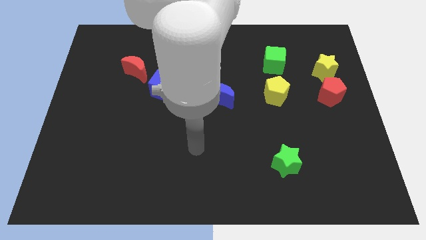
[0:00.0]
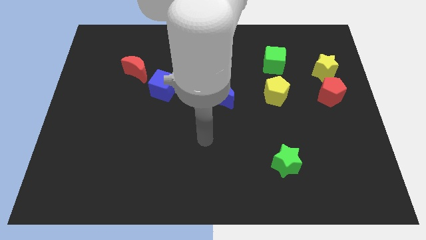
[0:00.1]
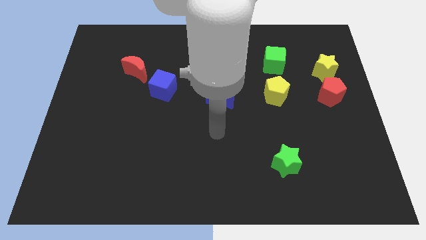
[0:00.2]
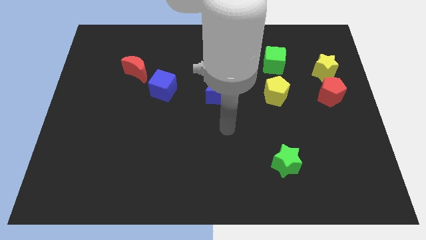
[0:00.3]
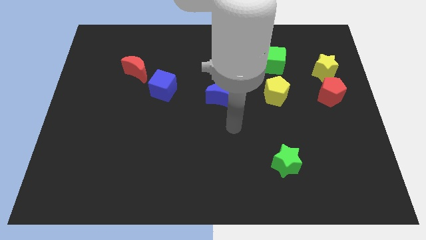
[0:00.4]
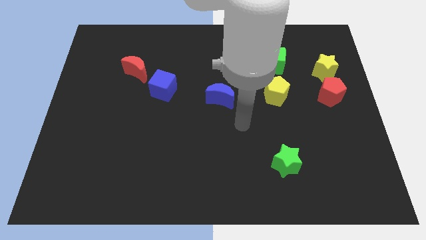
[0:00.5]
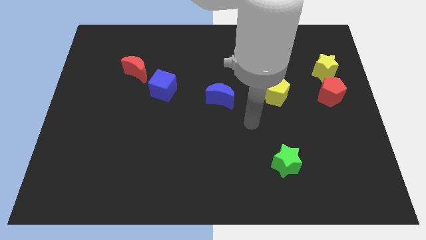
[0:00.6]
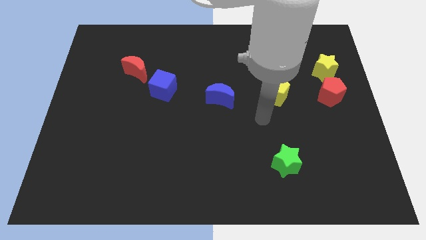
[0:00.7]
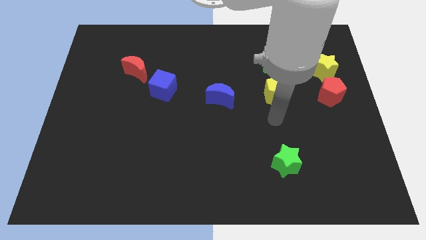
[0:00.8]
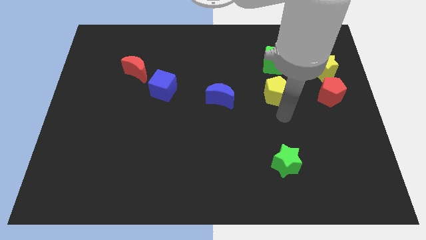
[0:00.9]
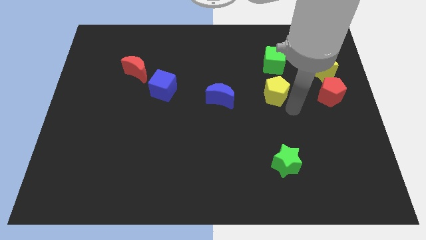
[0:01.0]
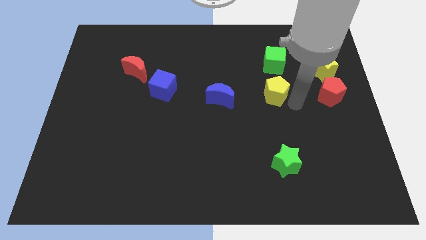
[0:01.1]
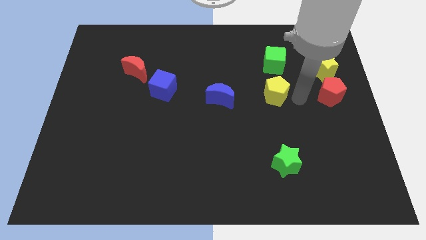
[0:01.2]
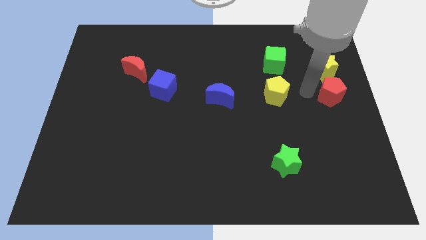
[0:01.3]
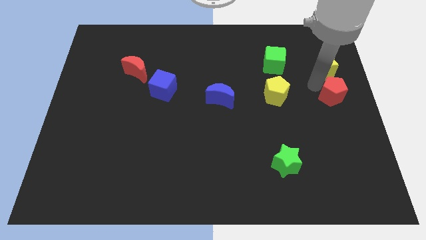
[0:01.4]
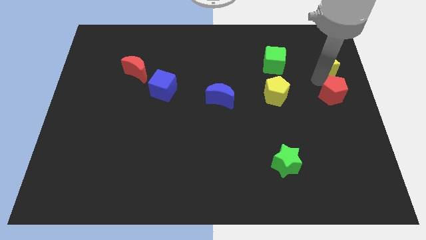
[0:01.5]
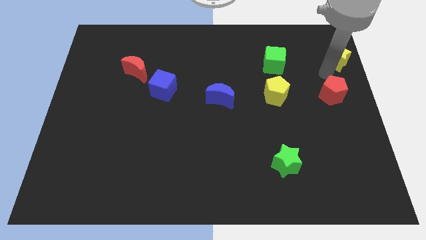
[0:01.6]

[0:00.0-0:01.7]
pull the red pentagon apart from the yellow star

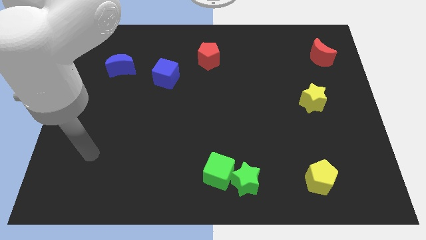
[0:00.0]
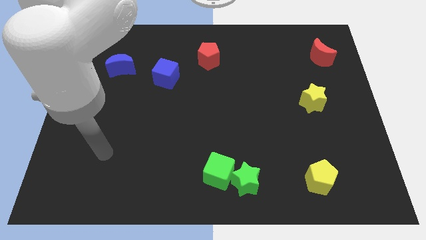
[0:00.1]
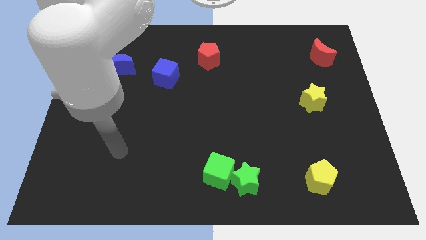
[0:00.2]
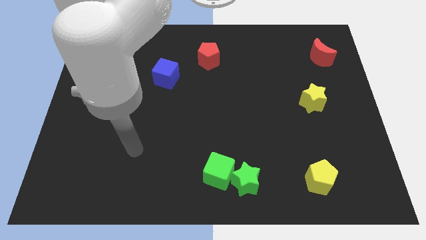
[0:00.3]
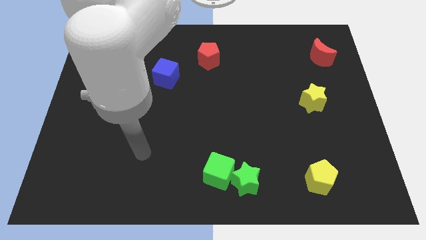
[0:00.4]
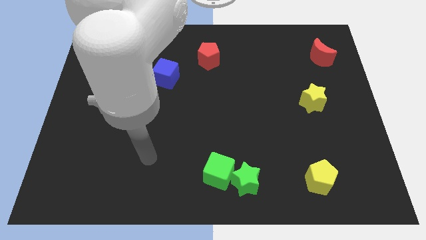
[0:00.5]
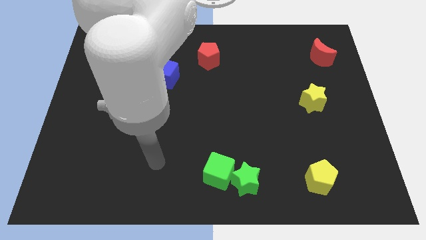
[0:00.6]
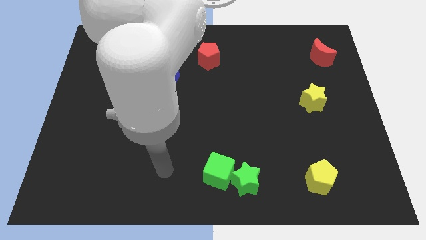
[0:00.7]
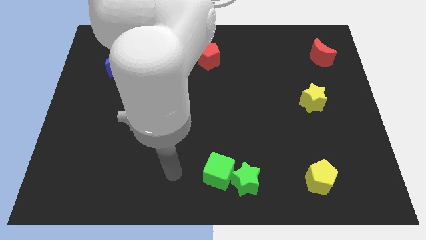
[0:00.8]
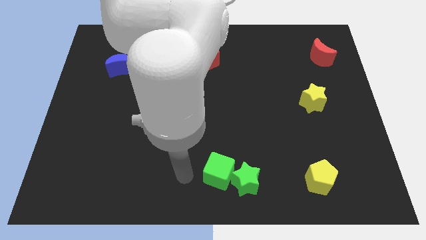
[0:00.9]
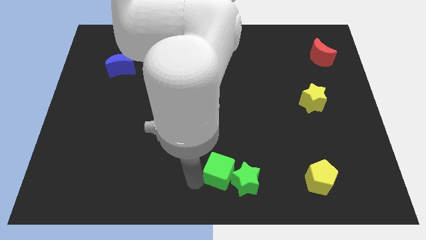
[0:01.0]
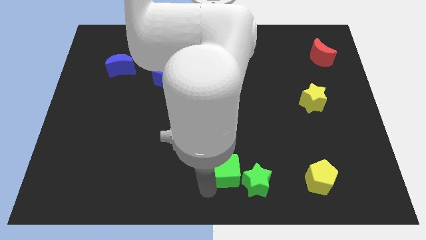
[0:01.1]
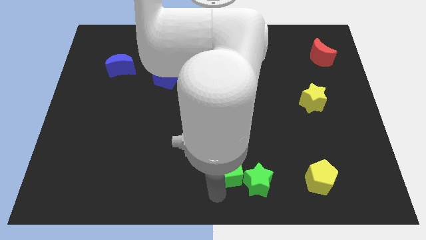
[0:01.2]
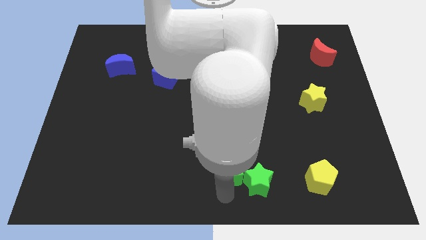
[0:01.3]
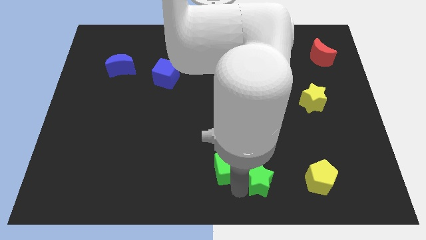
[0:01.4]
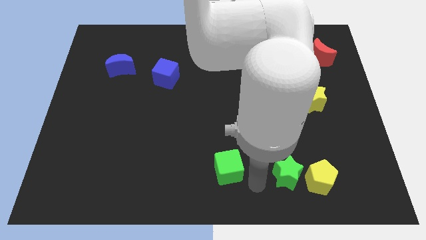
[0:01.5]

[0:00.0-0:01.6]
pull the green cube apart from the green star

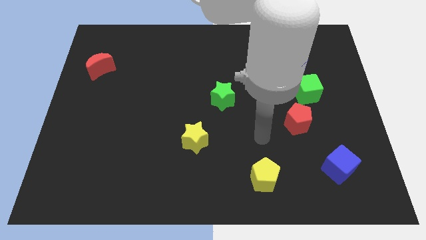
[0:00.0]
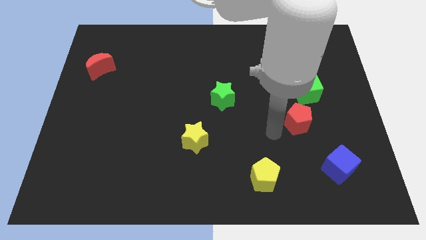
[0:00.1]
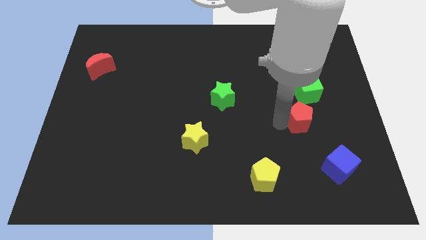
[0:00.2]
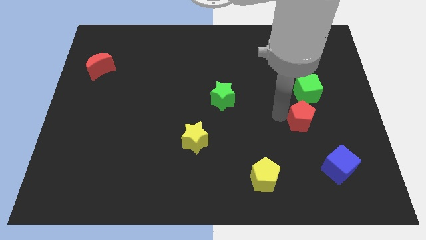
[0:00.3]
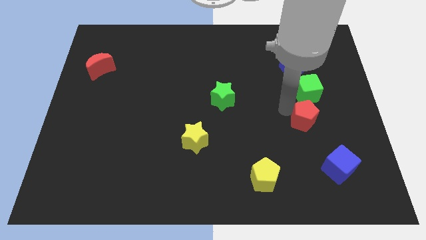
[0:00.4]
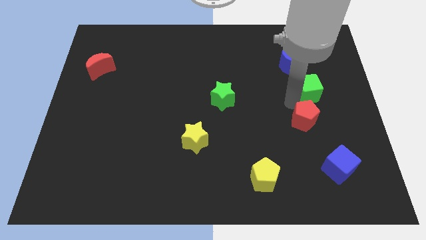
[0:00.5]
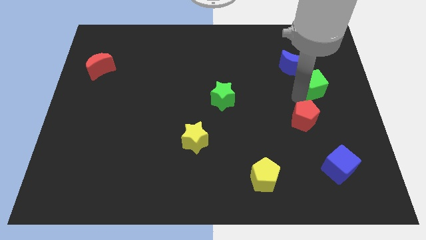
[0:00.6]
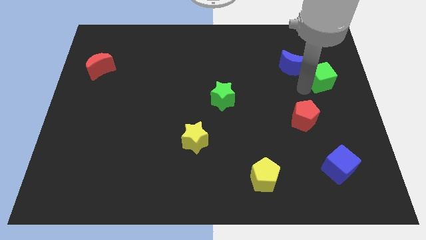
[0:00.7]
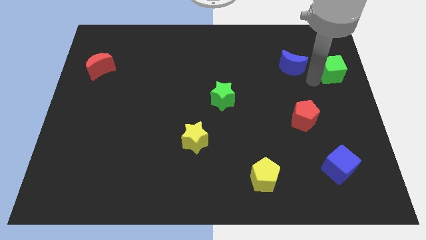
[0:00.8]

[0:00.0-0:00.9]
pull the blue moon apart from the green cube

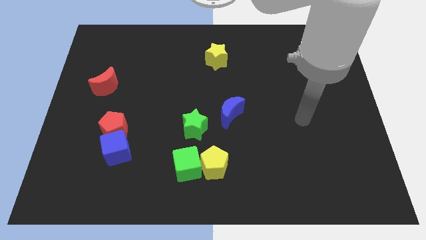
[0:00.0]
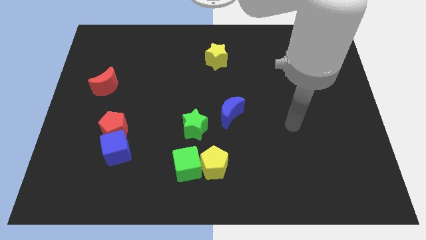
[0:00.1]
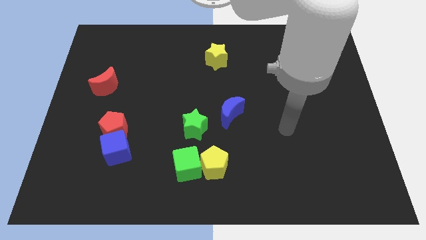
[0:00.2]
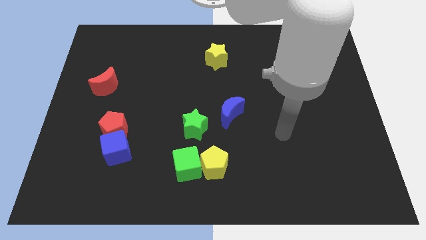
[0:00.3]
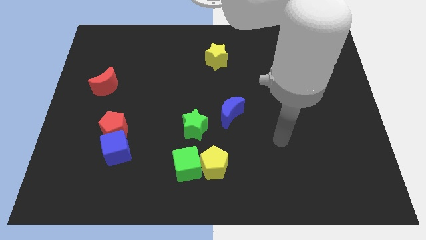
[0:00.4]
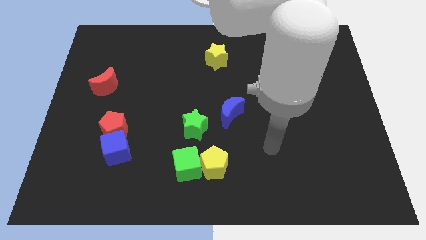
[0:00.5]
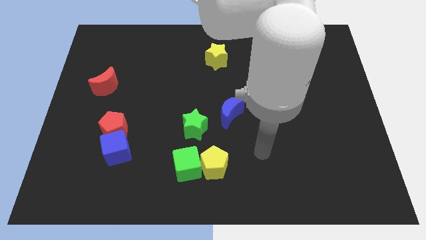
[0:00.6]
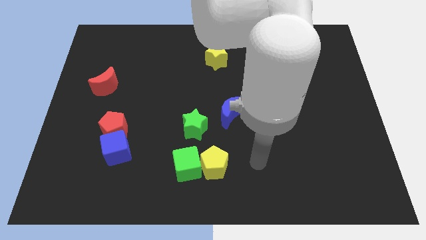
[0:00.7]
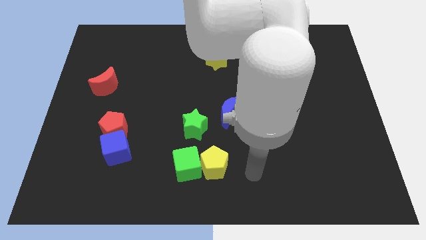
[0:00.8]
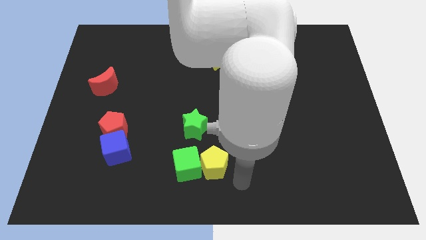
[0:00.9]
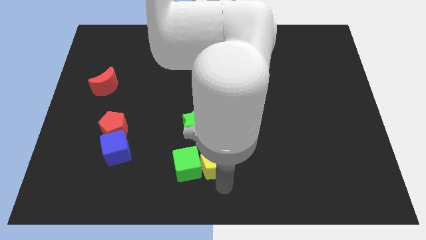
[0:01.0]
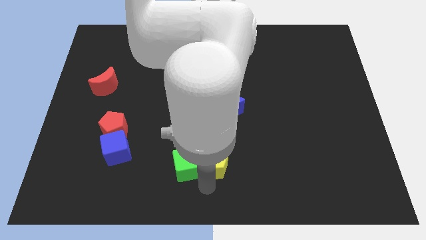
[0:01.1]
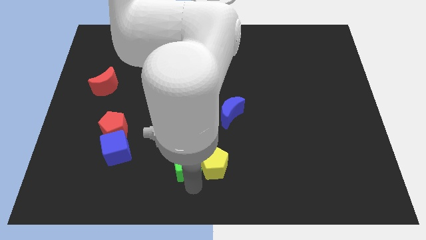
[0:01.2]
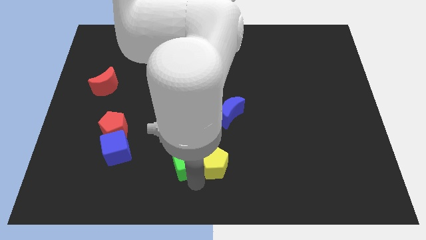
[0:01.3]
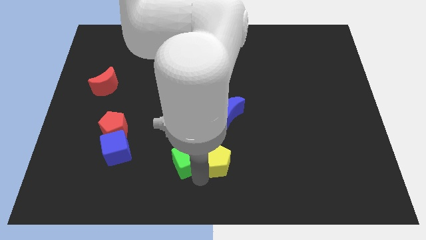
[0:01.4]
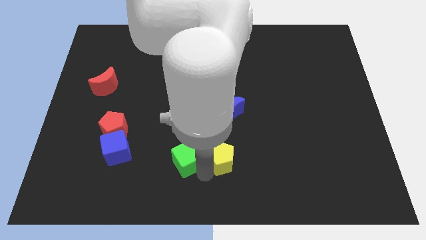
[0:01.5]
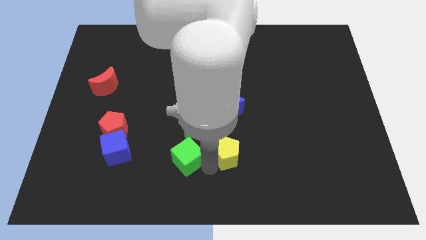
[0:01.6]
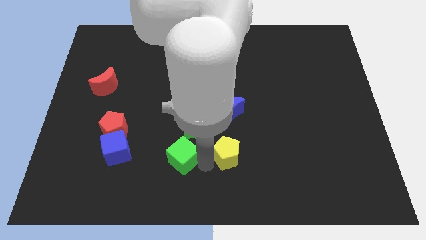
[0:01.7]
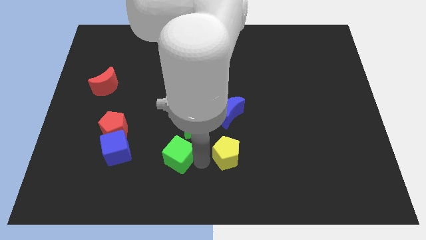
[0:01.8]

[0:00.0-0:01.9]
separate the yellow pentagon from the green cube

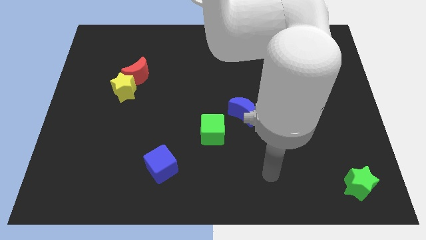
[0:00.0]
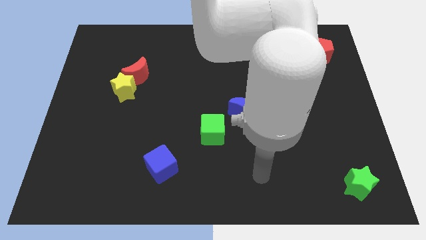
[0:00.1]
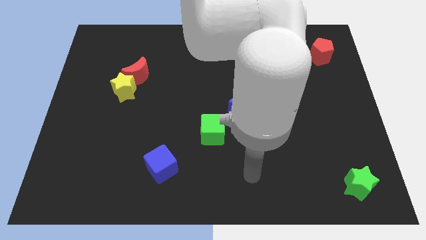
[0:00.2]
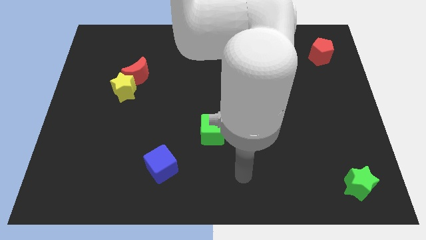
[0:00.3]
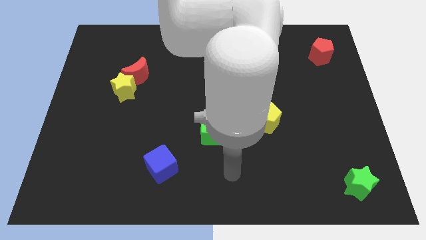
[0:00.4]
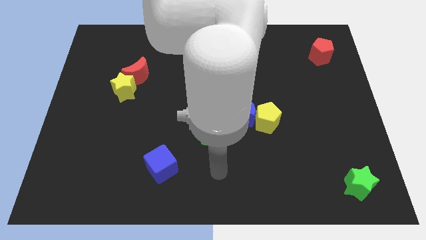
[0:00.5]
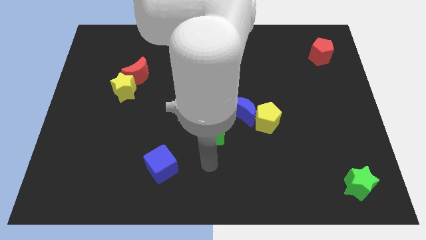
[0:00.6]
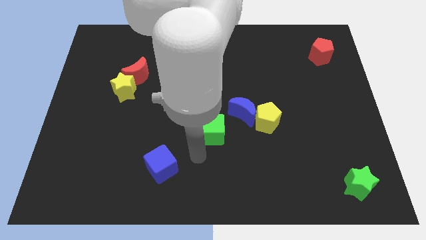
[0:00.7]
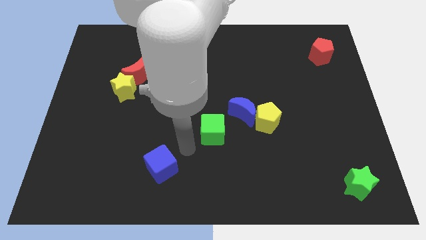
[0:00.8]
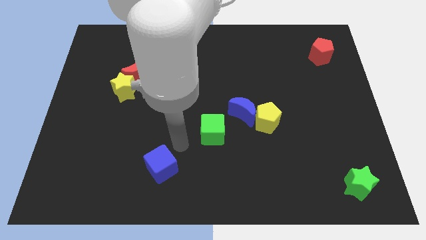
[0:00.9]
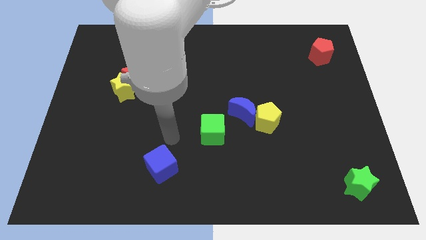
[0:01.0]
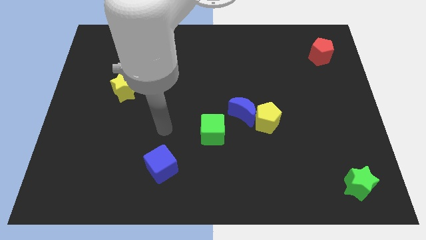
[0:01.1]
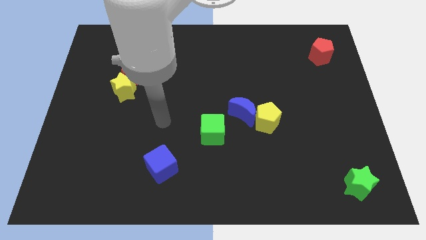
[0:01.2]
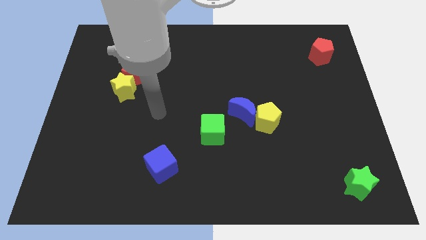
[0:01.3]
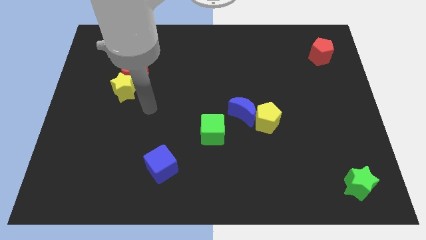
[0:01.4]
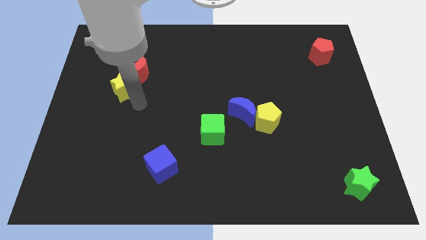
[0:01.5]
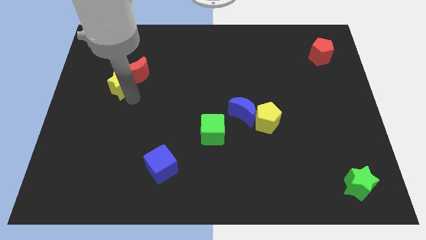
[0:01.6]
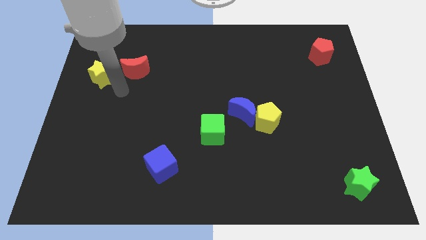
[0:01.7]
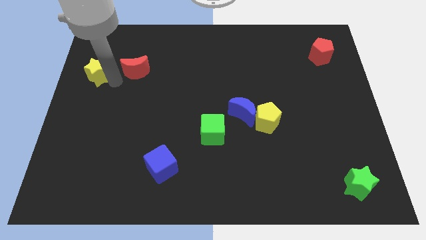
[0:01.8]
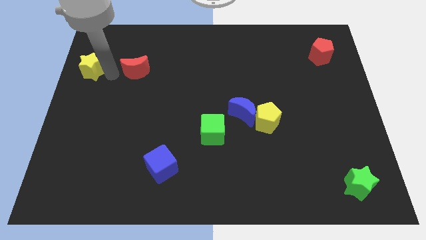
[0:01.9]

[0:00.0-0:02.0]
pull the red moon apart from the yellow star

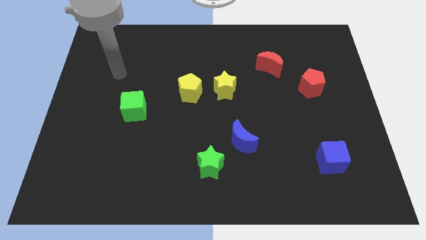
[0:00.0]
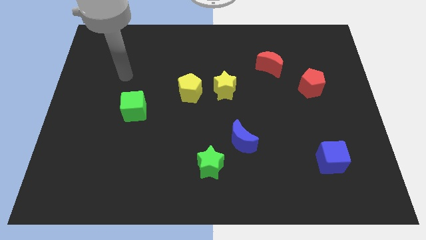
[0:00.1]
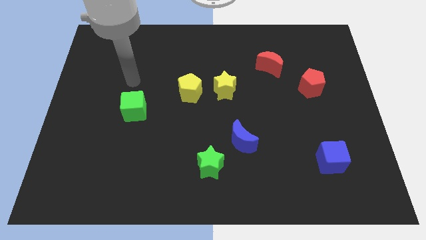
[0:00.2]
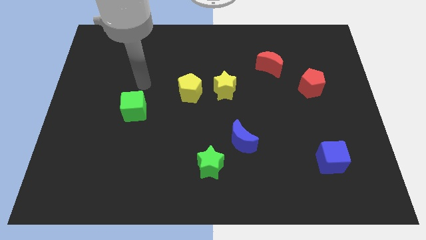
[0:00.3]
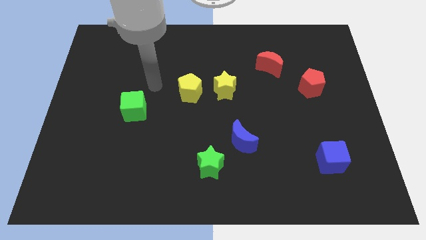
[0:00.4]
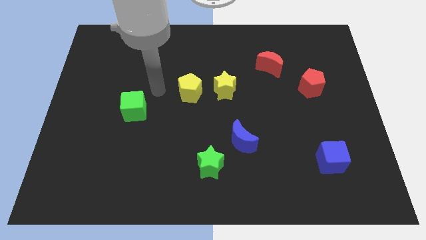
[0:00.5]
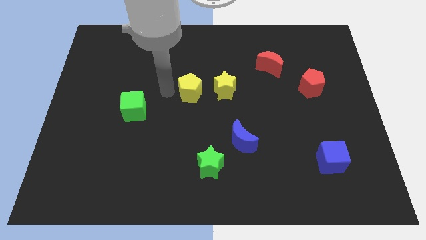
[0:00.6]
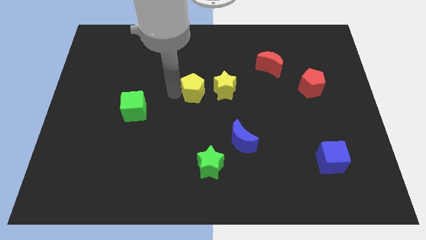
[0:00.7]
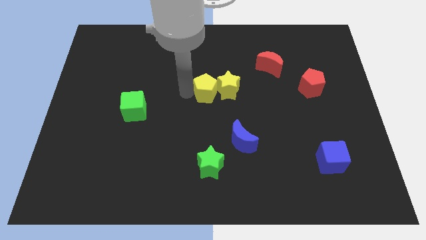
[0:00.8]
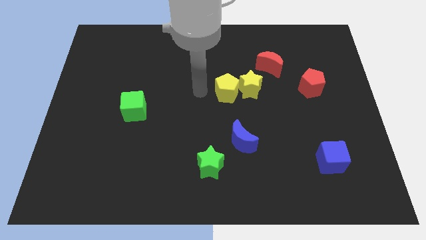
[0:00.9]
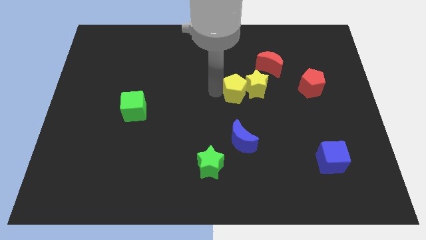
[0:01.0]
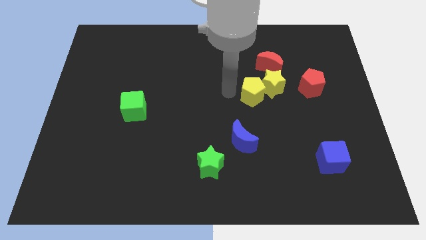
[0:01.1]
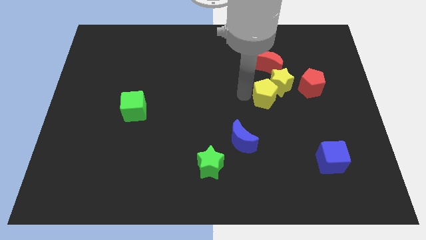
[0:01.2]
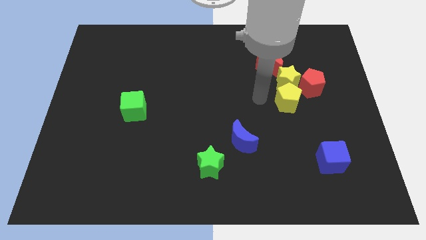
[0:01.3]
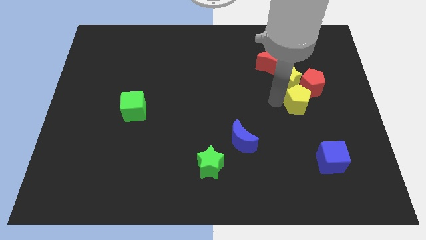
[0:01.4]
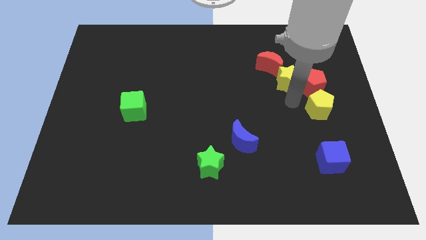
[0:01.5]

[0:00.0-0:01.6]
separate the yellow star from the yellow pentagon
